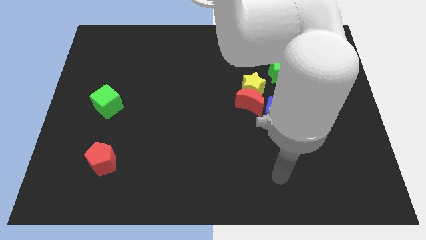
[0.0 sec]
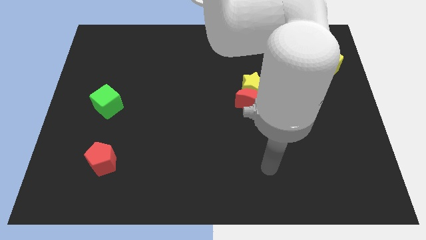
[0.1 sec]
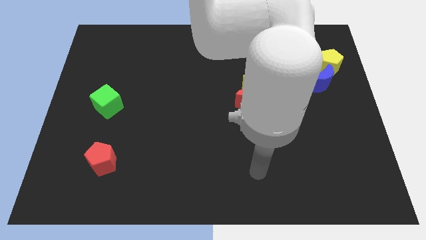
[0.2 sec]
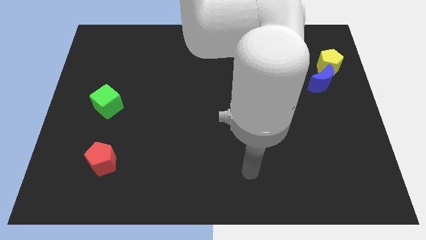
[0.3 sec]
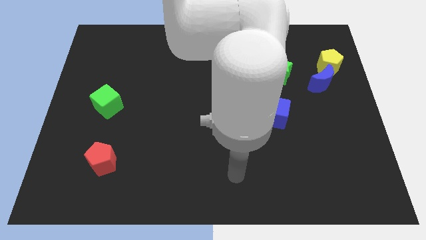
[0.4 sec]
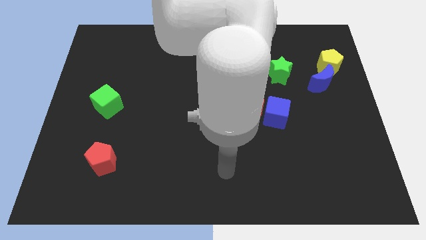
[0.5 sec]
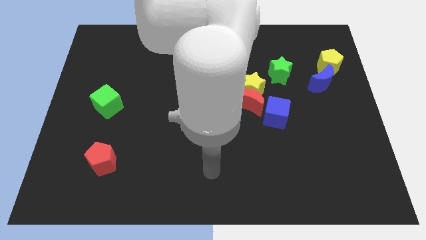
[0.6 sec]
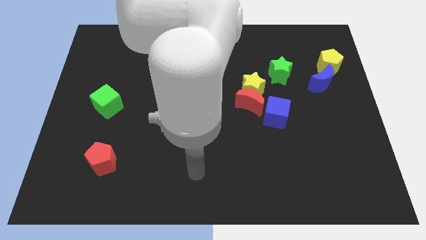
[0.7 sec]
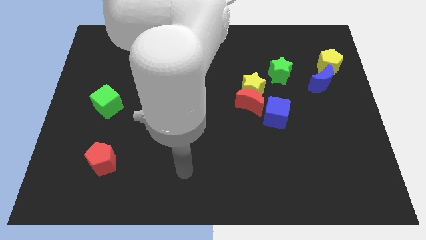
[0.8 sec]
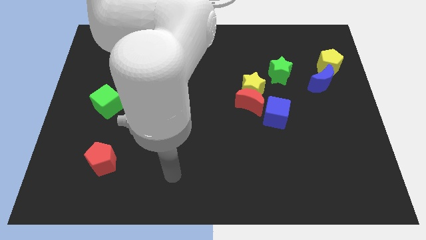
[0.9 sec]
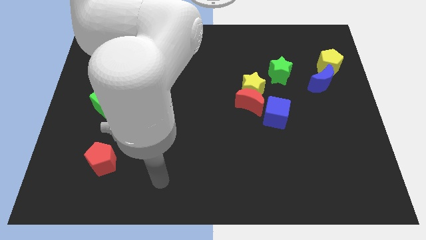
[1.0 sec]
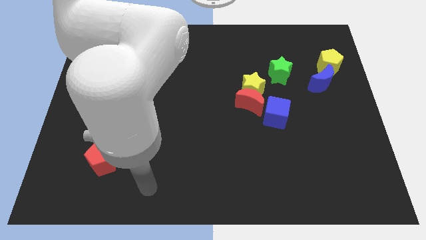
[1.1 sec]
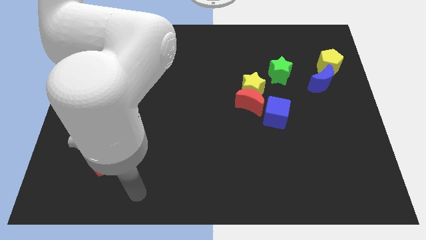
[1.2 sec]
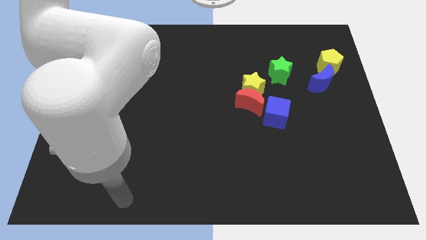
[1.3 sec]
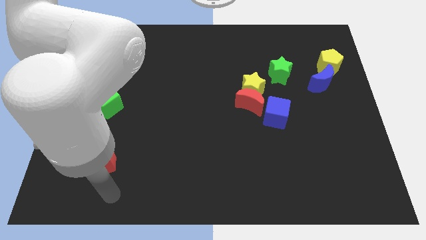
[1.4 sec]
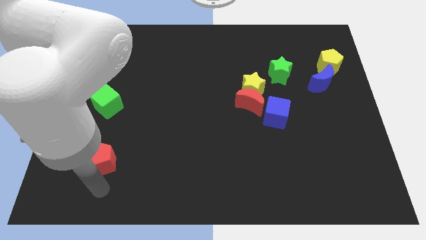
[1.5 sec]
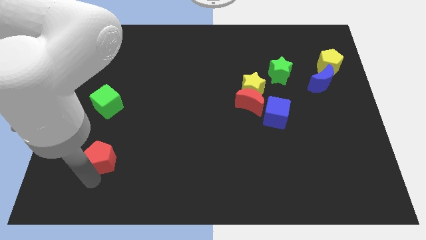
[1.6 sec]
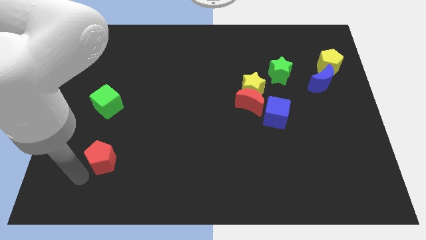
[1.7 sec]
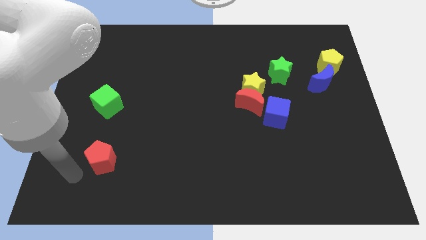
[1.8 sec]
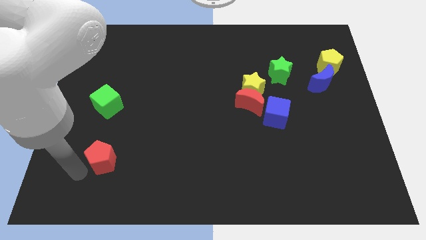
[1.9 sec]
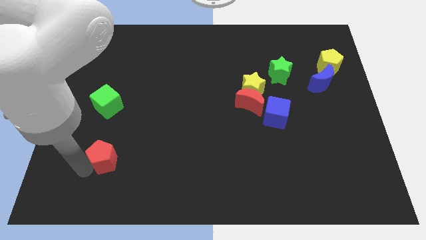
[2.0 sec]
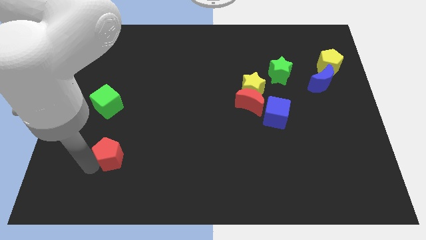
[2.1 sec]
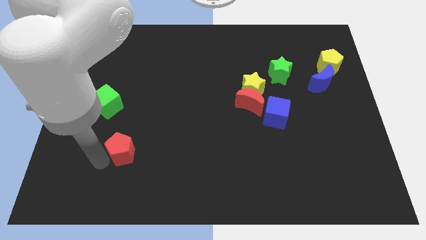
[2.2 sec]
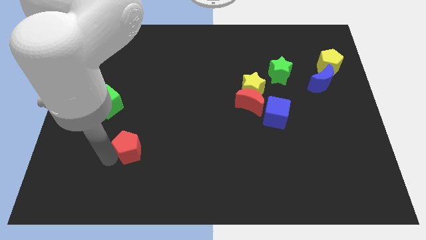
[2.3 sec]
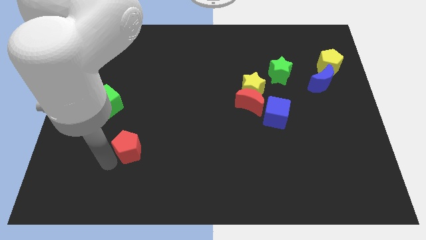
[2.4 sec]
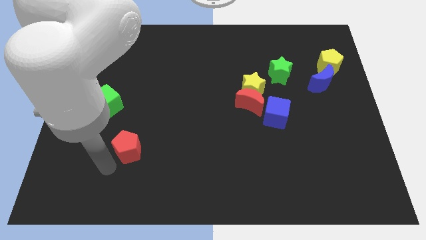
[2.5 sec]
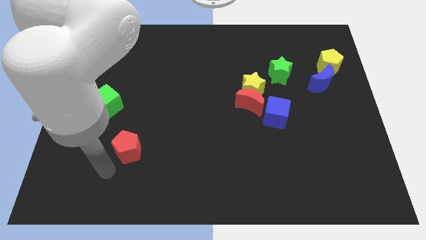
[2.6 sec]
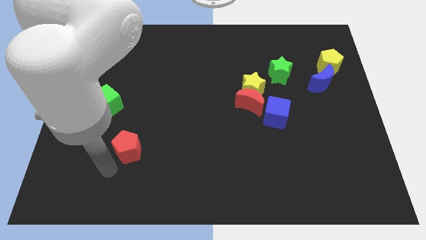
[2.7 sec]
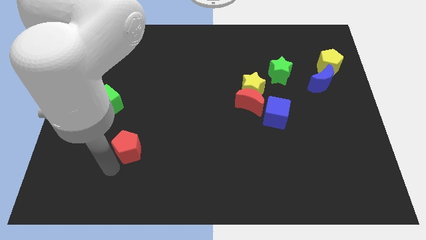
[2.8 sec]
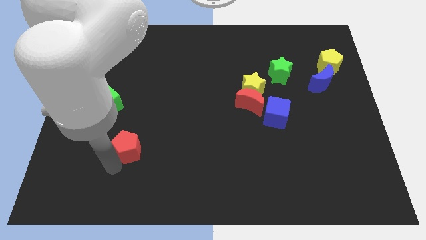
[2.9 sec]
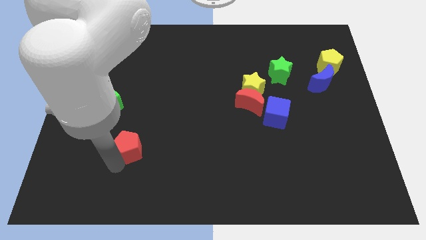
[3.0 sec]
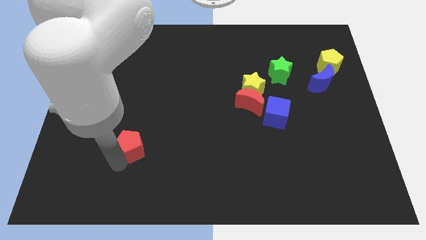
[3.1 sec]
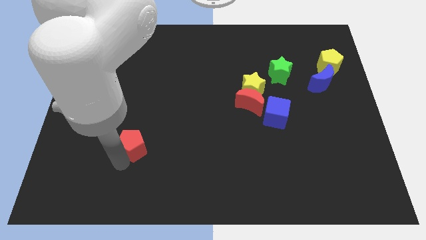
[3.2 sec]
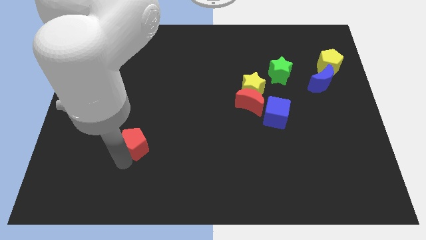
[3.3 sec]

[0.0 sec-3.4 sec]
push the red pentagon up and then to the right a little bit

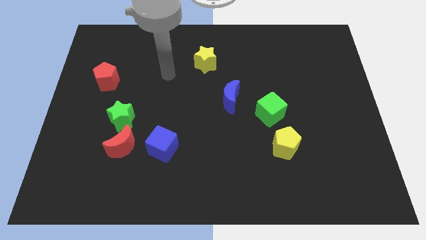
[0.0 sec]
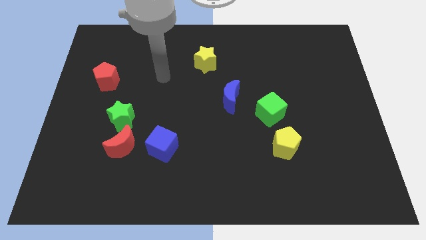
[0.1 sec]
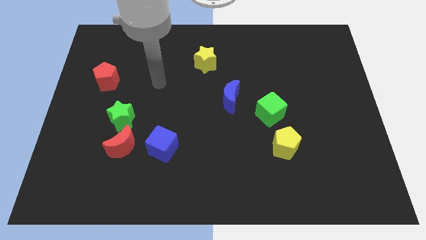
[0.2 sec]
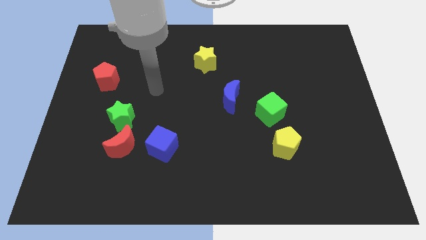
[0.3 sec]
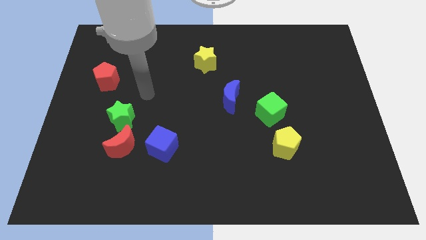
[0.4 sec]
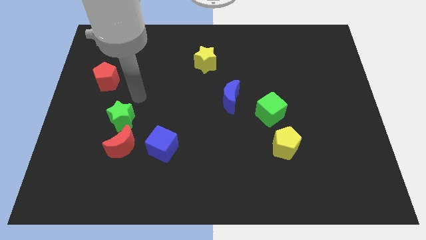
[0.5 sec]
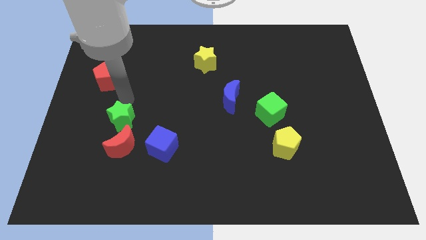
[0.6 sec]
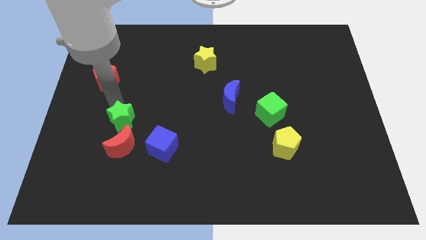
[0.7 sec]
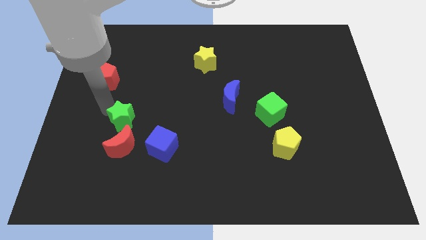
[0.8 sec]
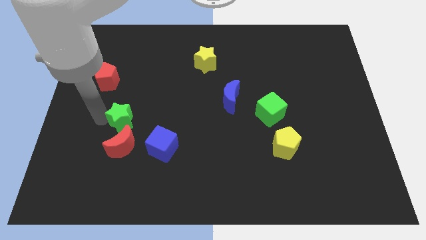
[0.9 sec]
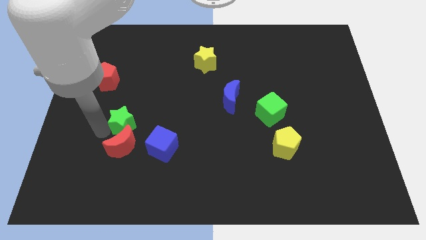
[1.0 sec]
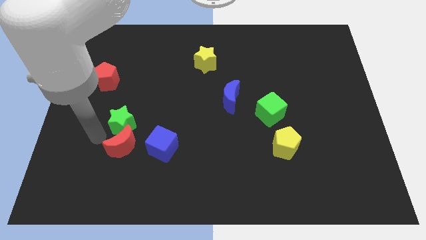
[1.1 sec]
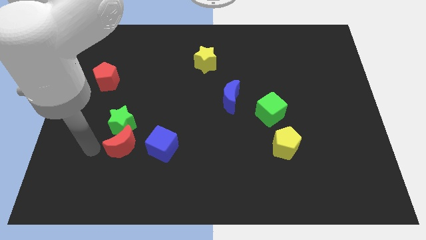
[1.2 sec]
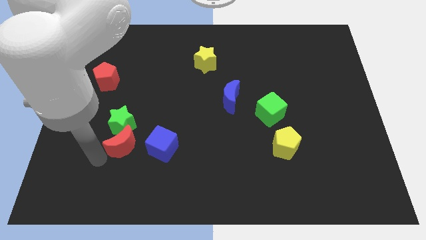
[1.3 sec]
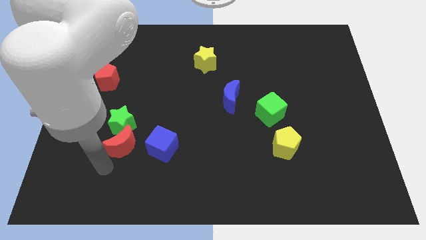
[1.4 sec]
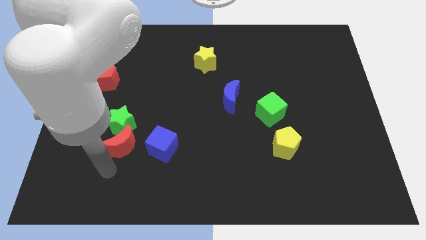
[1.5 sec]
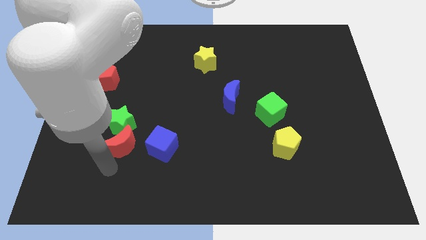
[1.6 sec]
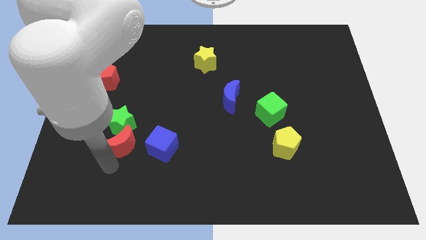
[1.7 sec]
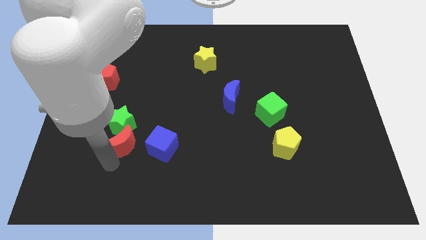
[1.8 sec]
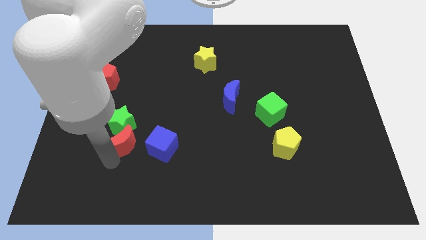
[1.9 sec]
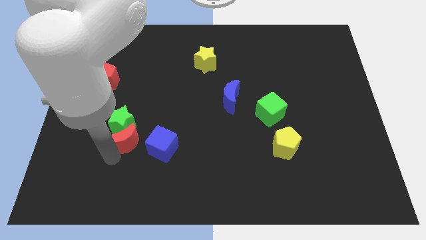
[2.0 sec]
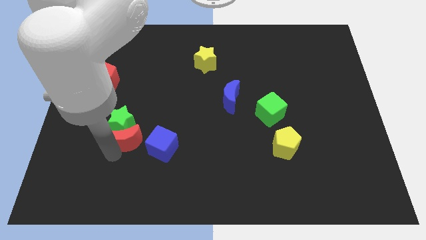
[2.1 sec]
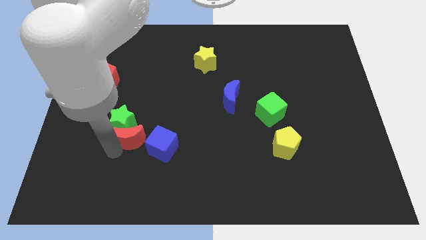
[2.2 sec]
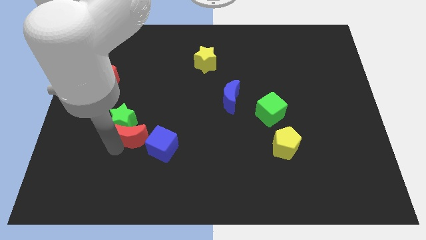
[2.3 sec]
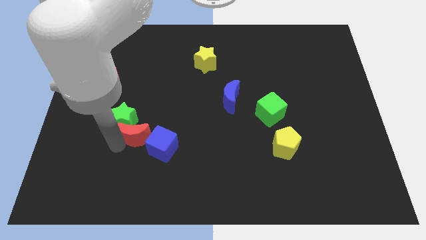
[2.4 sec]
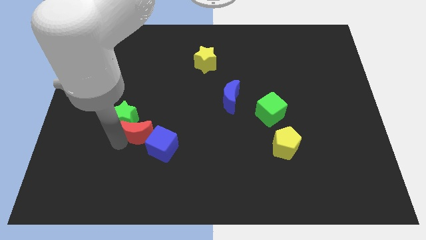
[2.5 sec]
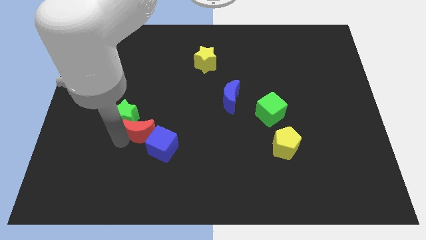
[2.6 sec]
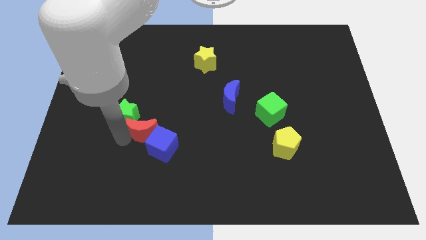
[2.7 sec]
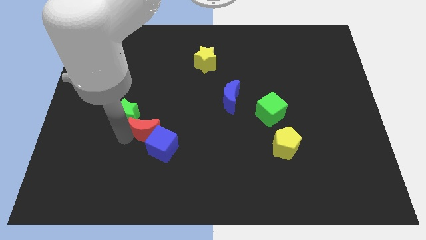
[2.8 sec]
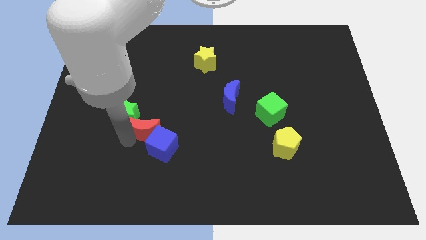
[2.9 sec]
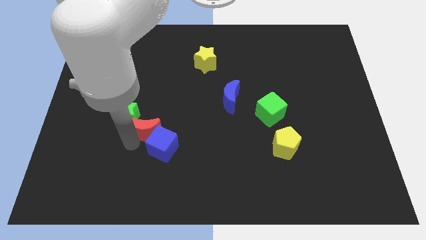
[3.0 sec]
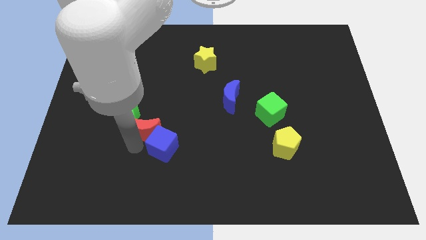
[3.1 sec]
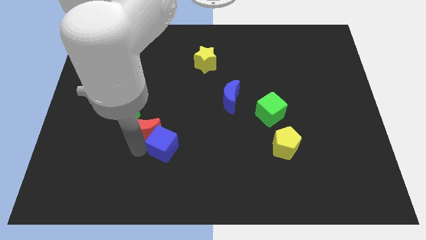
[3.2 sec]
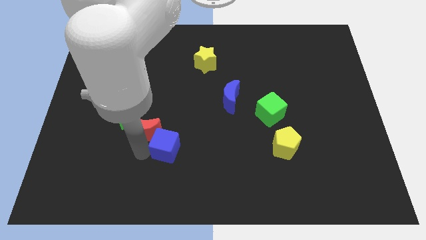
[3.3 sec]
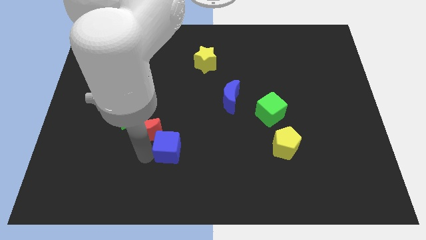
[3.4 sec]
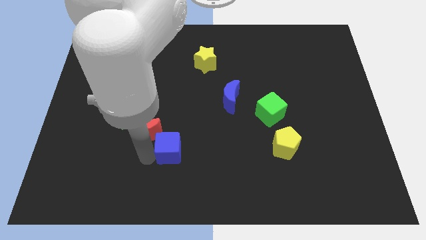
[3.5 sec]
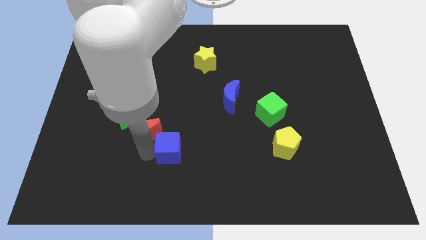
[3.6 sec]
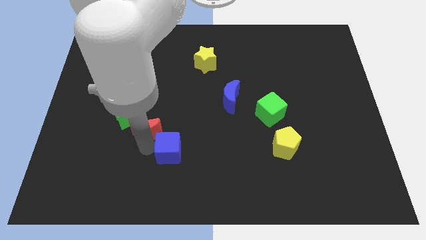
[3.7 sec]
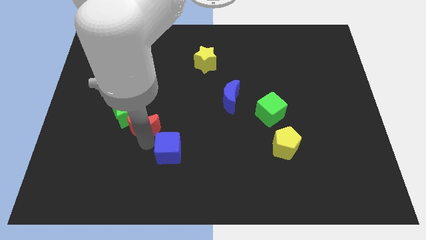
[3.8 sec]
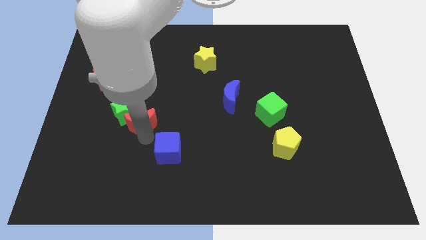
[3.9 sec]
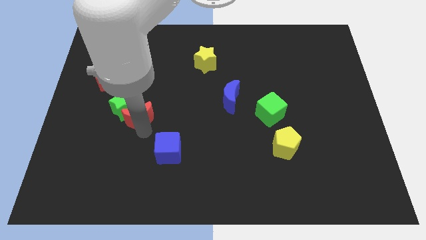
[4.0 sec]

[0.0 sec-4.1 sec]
slide the red moon upwards somewhat

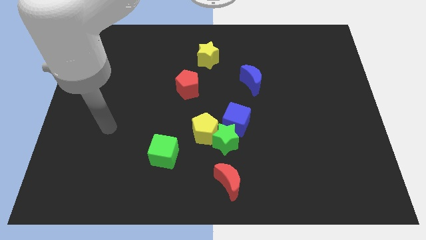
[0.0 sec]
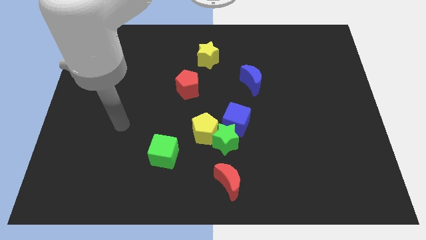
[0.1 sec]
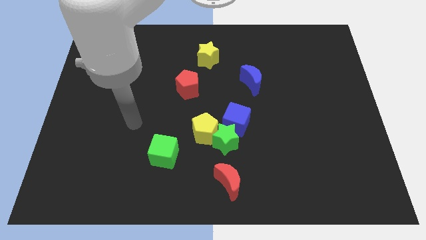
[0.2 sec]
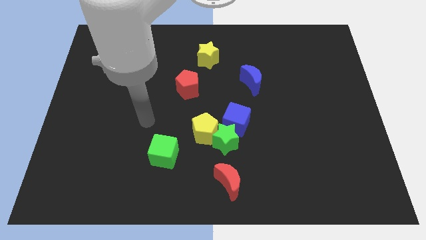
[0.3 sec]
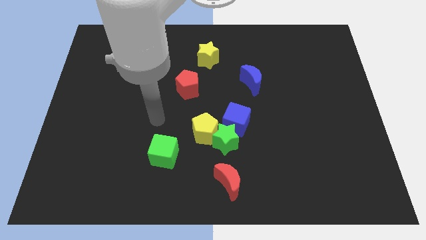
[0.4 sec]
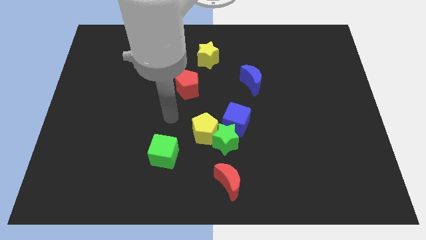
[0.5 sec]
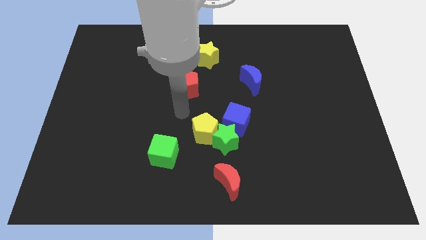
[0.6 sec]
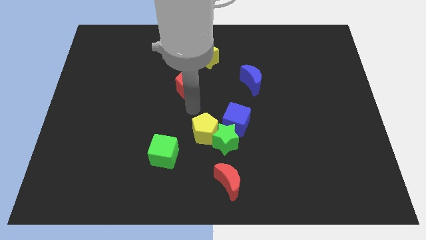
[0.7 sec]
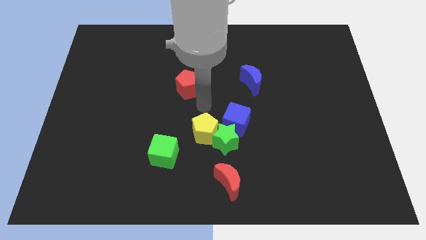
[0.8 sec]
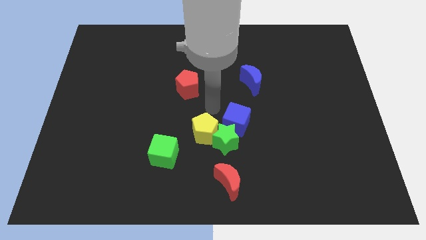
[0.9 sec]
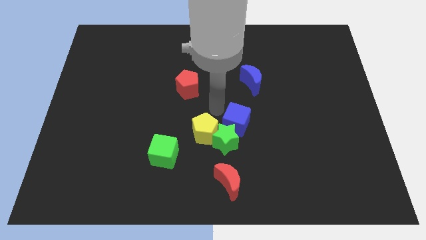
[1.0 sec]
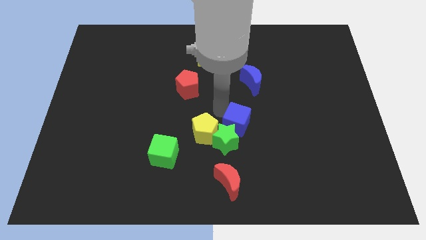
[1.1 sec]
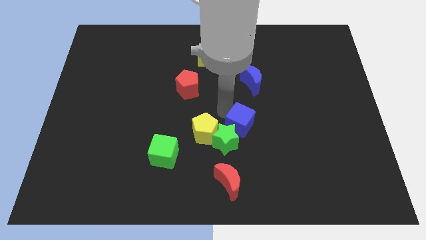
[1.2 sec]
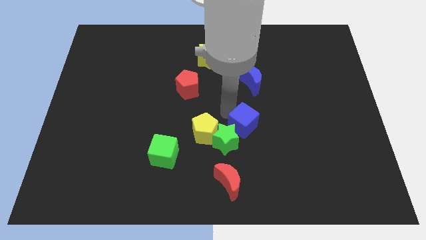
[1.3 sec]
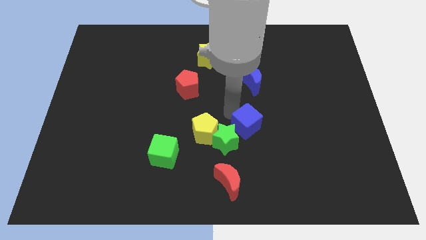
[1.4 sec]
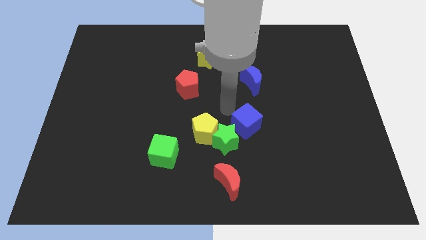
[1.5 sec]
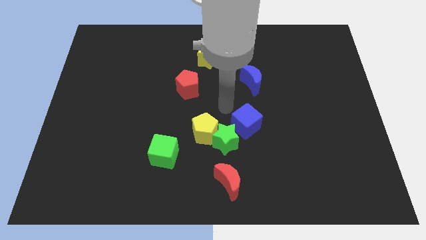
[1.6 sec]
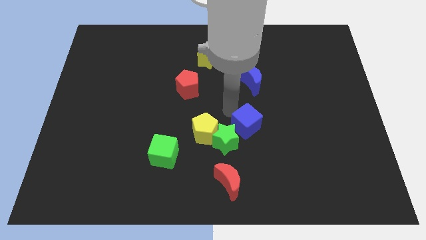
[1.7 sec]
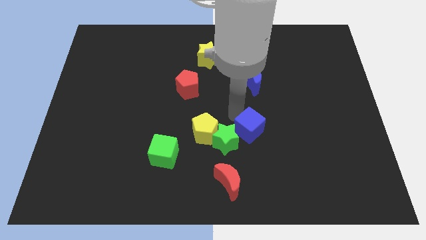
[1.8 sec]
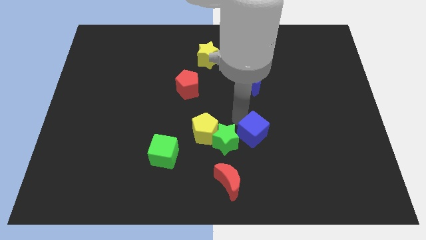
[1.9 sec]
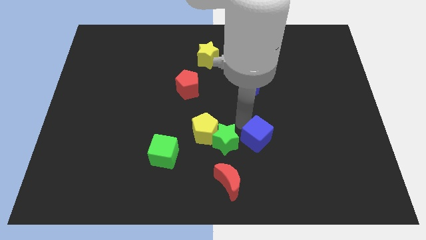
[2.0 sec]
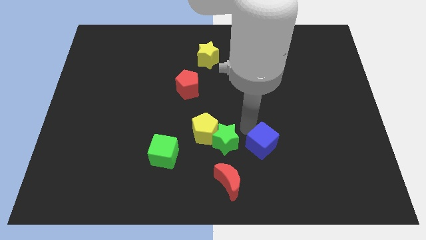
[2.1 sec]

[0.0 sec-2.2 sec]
move the blue cube a little downwards and then to the right
